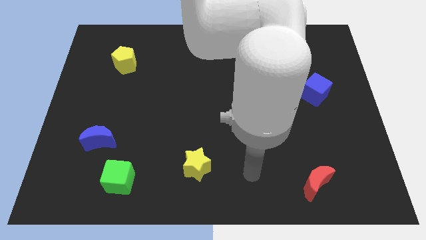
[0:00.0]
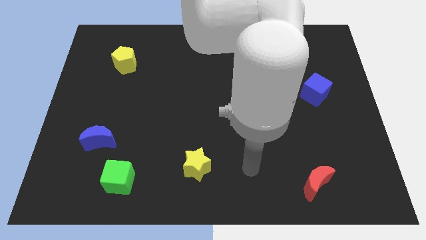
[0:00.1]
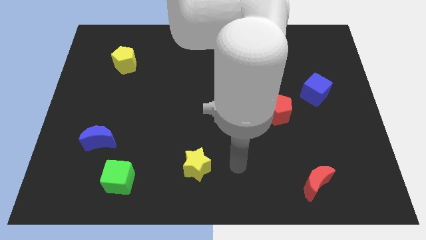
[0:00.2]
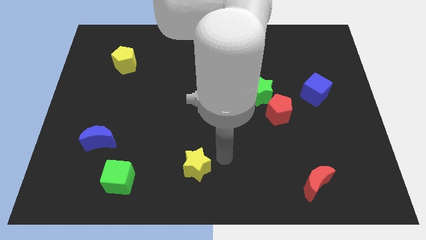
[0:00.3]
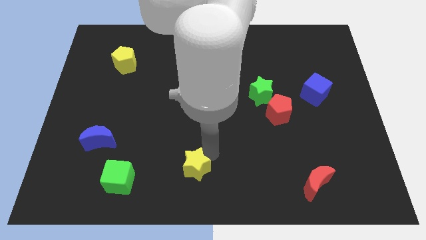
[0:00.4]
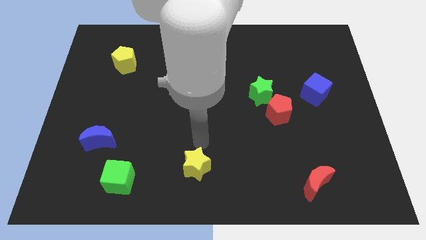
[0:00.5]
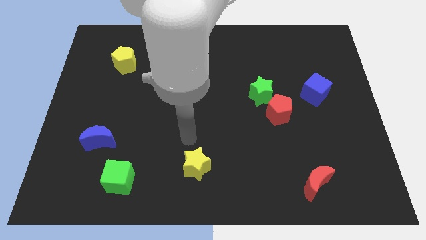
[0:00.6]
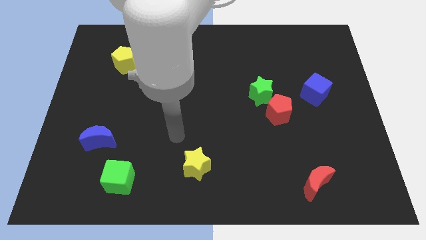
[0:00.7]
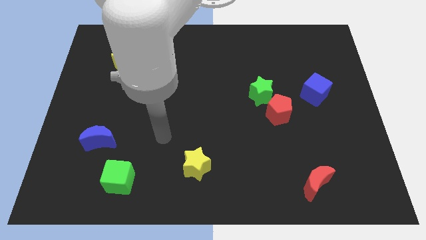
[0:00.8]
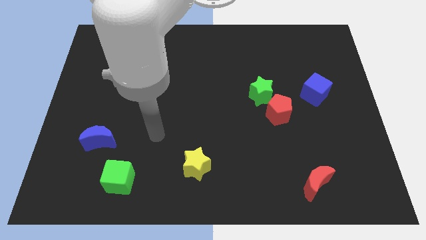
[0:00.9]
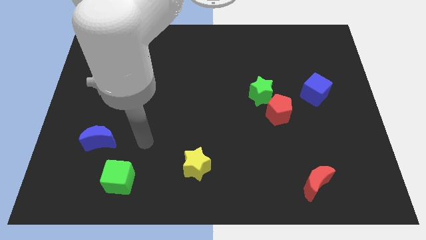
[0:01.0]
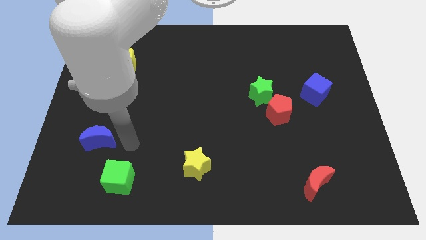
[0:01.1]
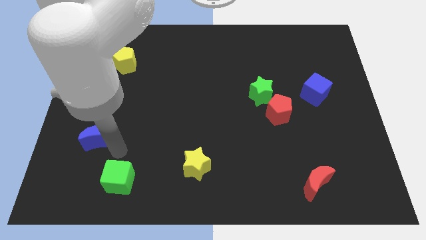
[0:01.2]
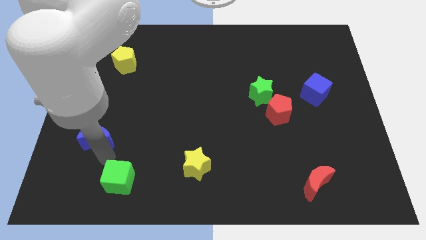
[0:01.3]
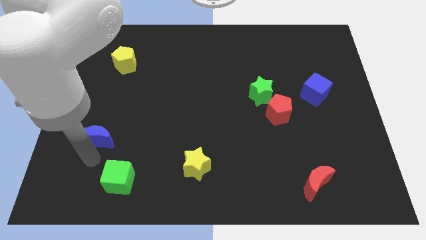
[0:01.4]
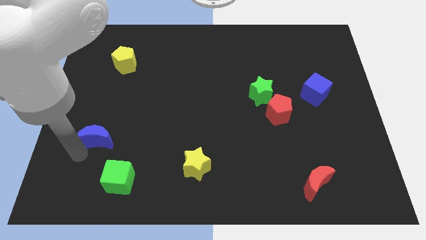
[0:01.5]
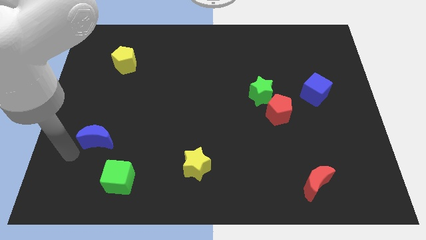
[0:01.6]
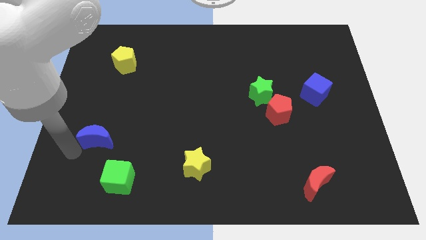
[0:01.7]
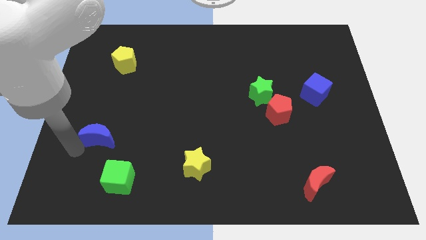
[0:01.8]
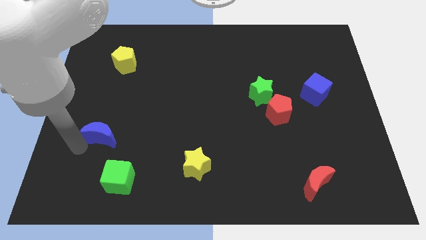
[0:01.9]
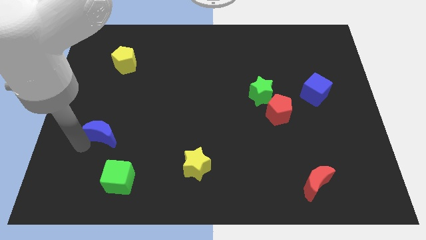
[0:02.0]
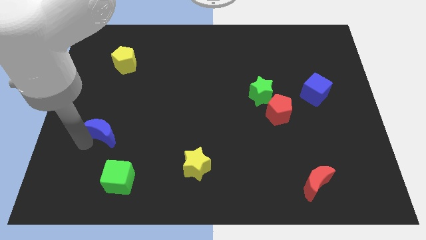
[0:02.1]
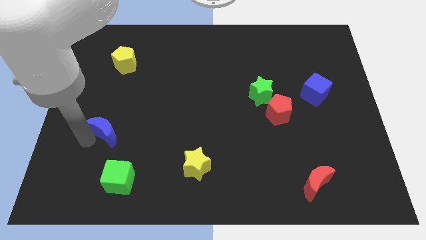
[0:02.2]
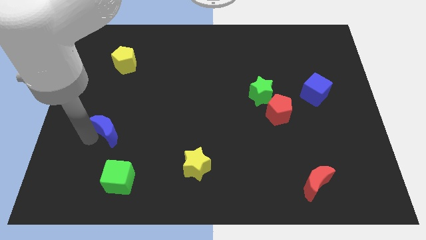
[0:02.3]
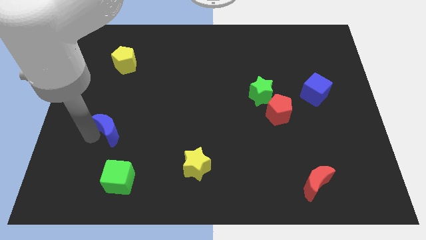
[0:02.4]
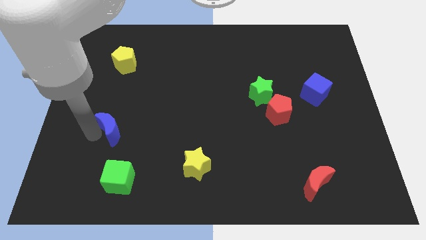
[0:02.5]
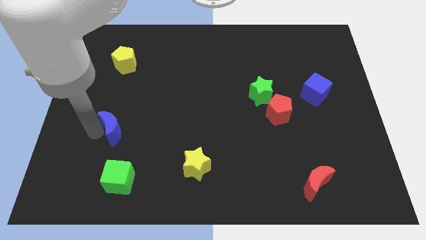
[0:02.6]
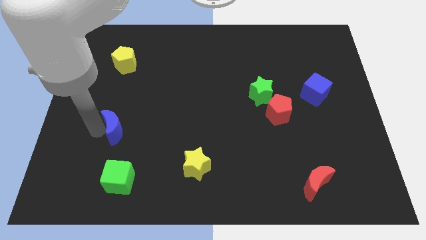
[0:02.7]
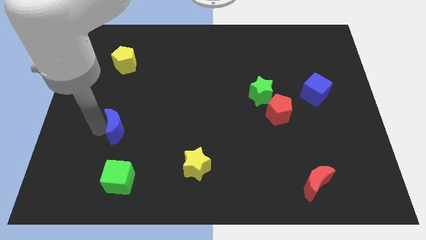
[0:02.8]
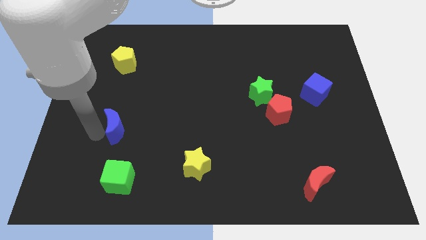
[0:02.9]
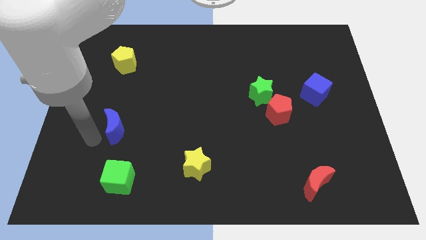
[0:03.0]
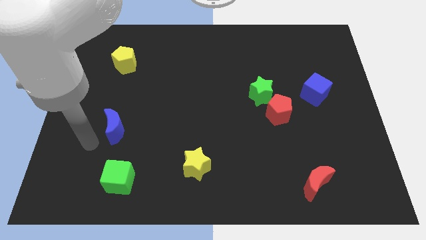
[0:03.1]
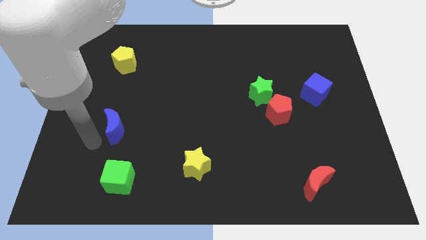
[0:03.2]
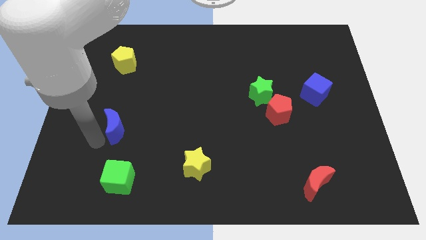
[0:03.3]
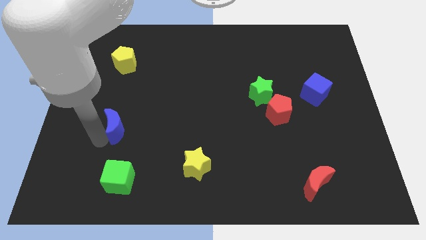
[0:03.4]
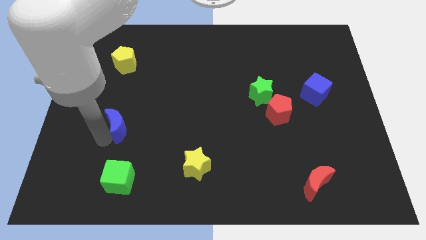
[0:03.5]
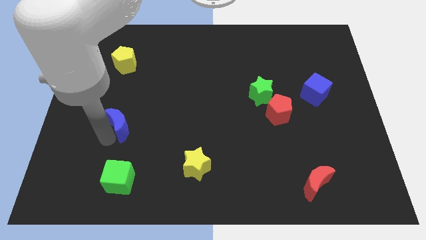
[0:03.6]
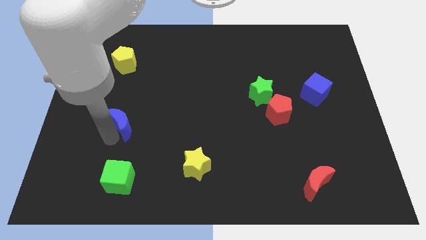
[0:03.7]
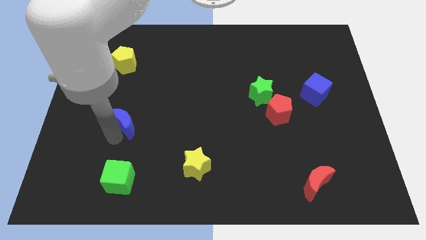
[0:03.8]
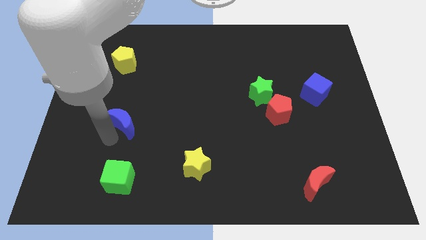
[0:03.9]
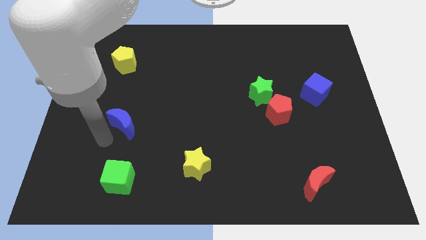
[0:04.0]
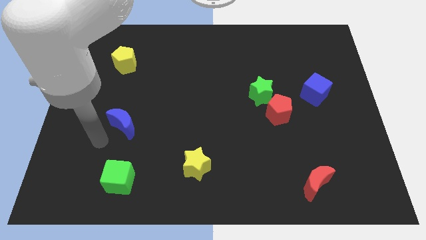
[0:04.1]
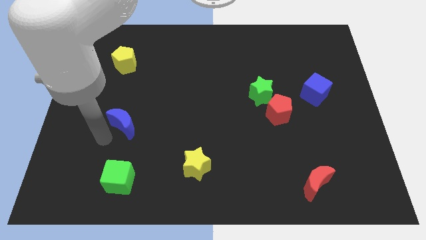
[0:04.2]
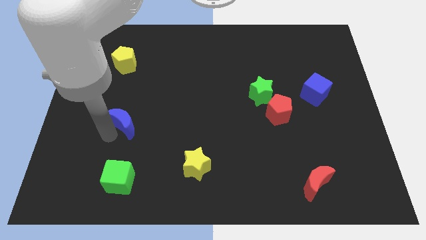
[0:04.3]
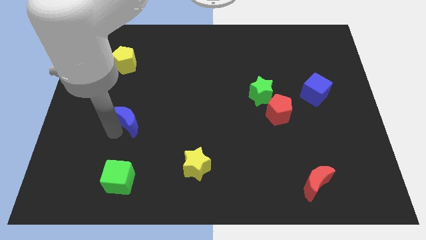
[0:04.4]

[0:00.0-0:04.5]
move the blue moon a bit diagonally up and to the right

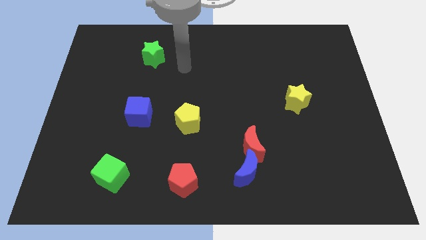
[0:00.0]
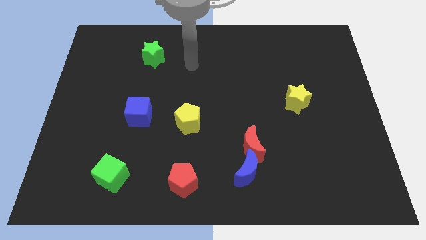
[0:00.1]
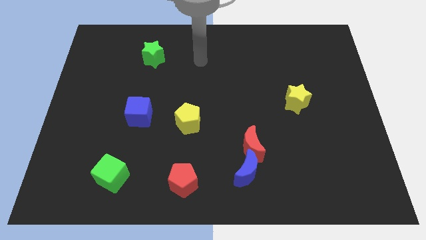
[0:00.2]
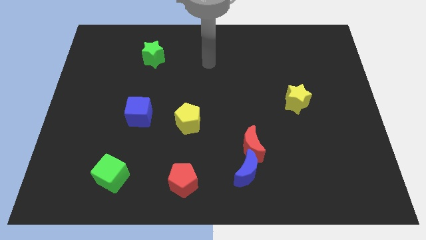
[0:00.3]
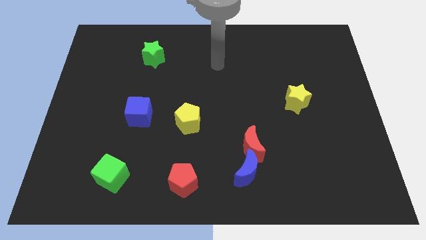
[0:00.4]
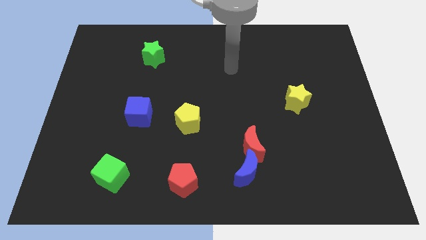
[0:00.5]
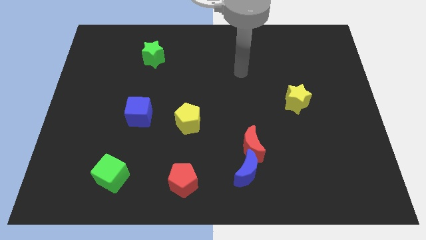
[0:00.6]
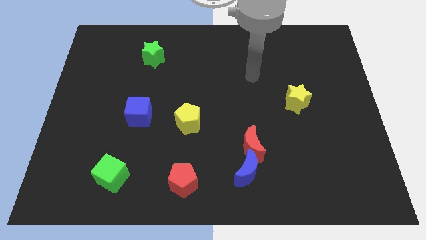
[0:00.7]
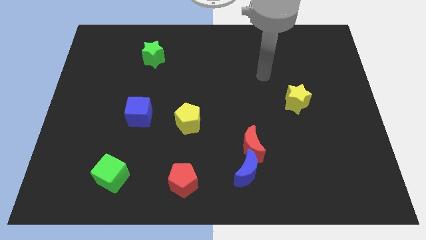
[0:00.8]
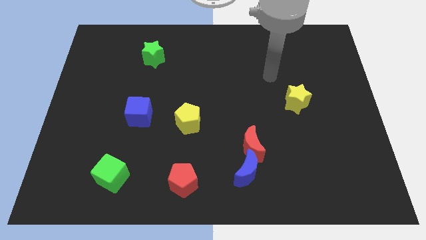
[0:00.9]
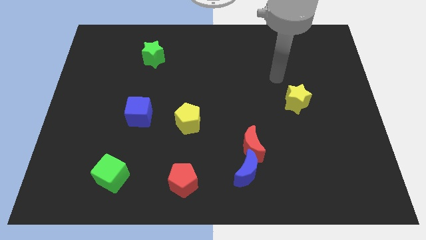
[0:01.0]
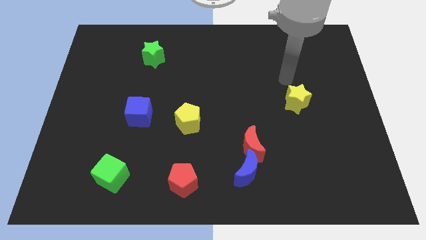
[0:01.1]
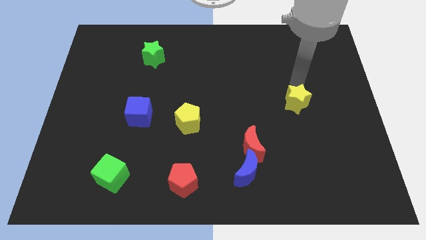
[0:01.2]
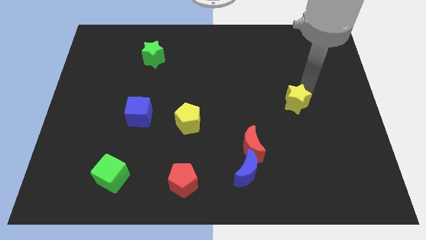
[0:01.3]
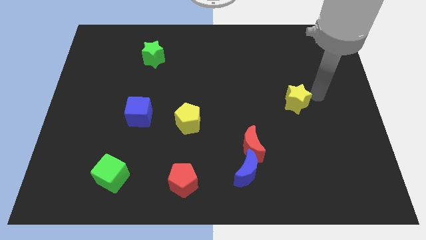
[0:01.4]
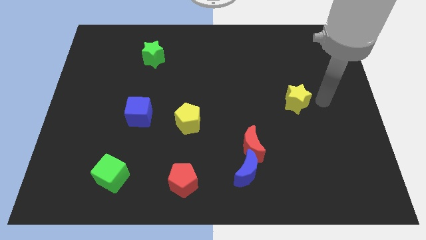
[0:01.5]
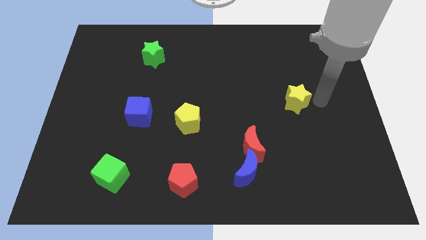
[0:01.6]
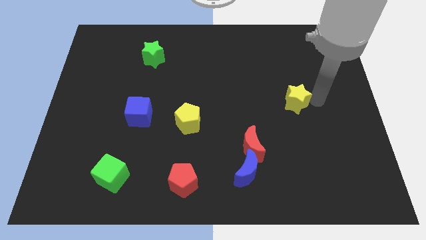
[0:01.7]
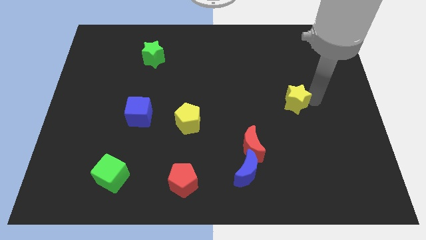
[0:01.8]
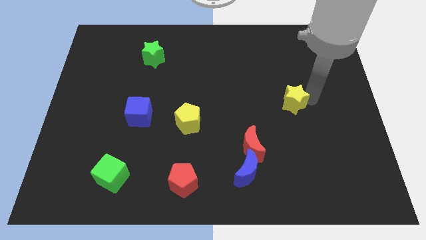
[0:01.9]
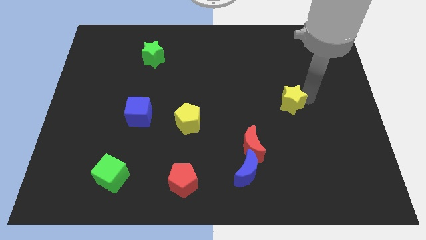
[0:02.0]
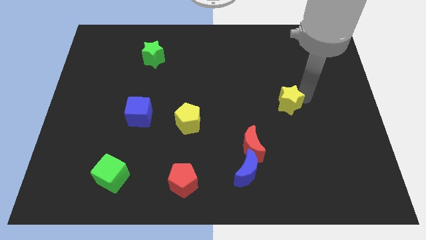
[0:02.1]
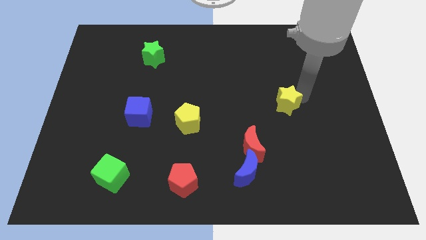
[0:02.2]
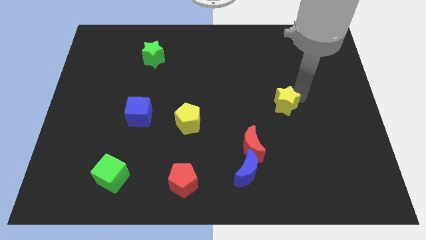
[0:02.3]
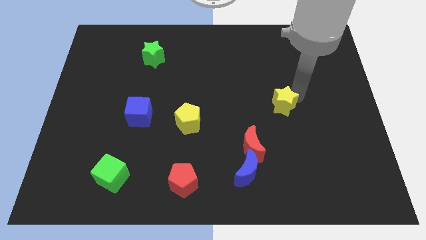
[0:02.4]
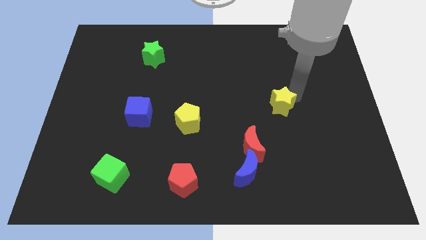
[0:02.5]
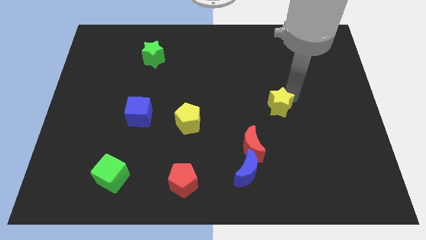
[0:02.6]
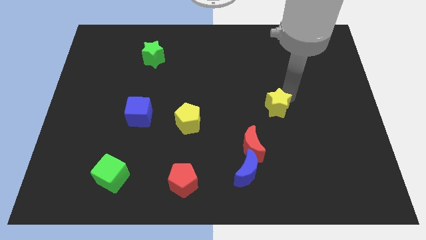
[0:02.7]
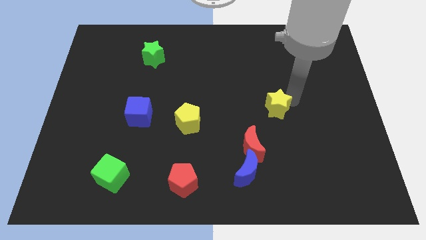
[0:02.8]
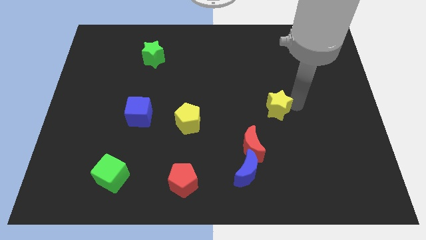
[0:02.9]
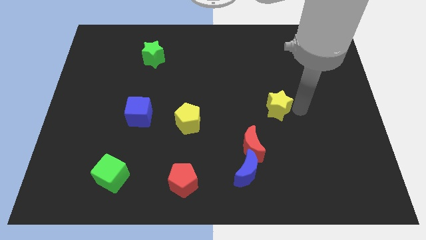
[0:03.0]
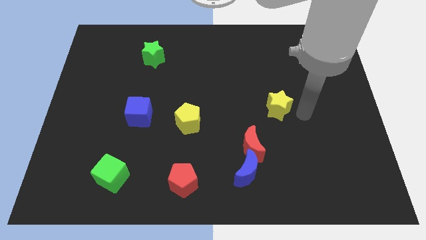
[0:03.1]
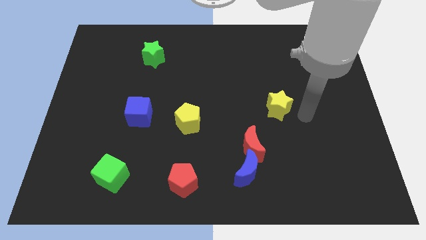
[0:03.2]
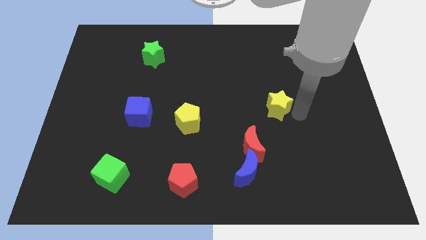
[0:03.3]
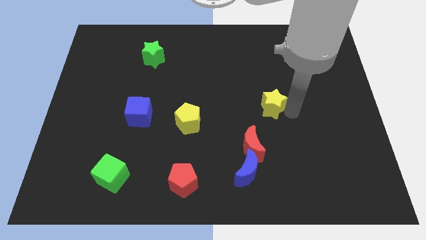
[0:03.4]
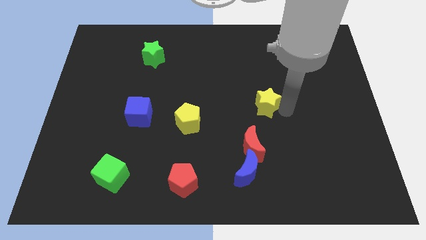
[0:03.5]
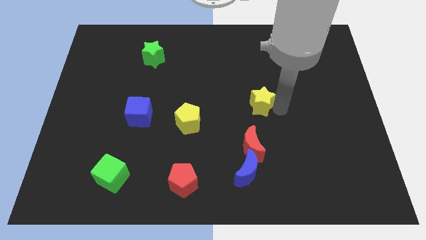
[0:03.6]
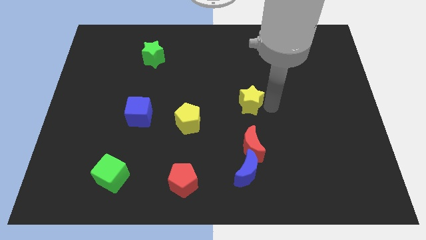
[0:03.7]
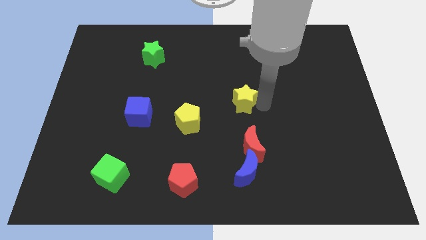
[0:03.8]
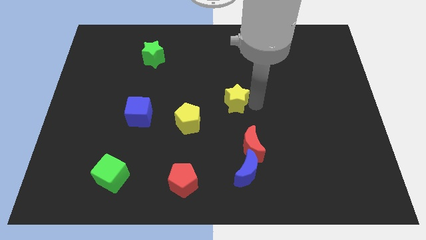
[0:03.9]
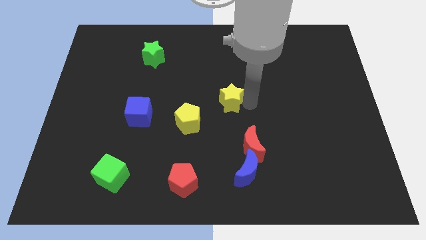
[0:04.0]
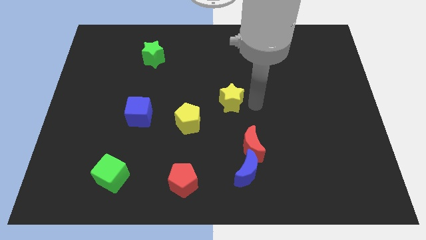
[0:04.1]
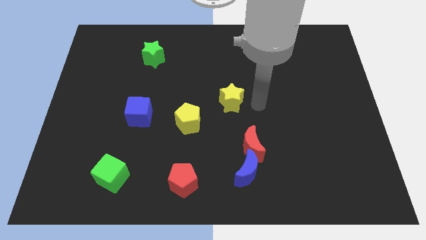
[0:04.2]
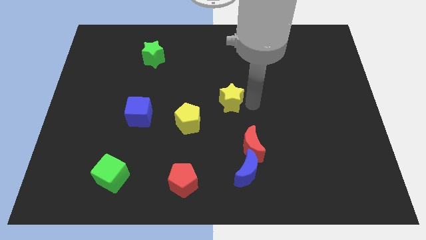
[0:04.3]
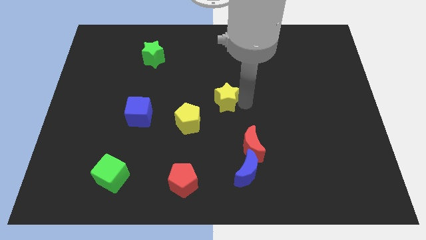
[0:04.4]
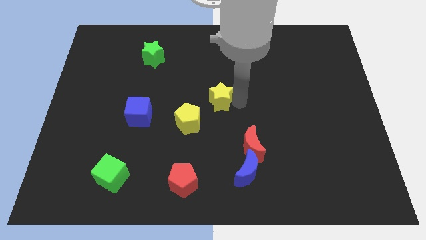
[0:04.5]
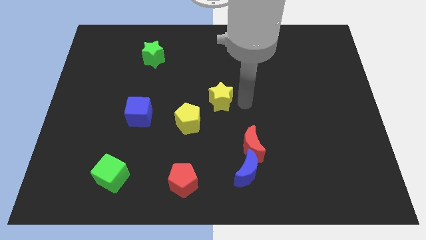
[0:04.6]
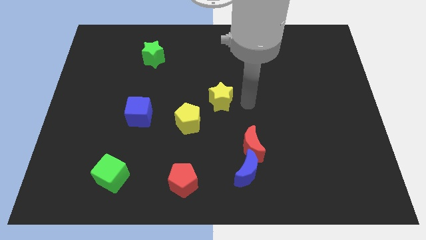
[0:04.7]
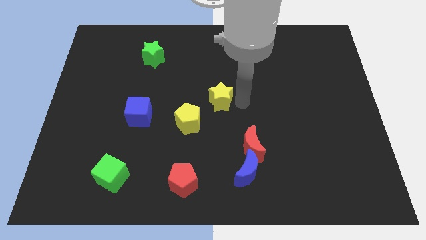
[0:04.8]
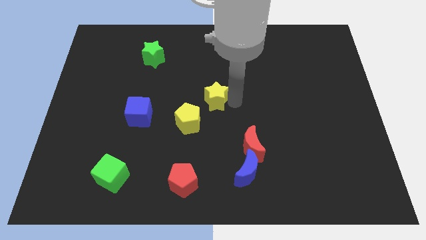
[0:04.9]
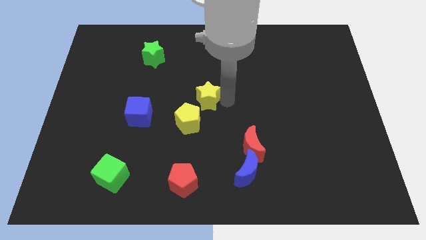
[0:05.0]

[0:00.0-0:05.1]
slide the yellow star to the left
